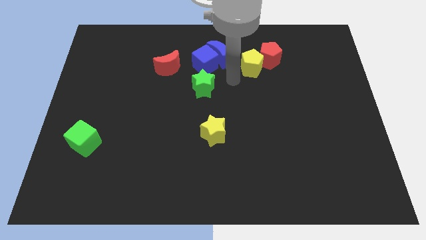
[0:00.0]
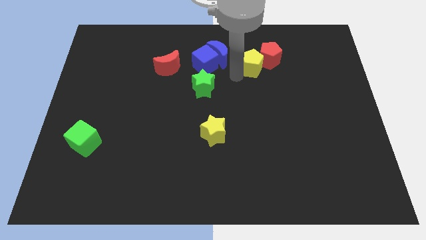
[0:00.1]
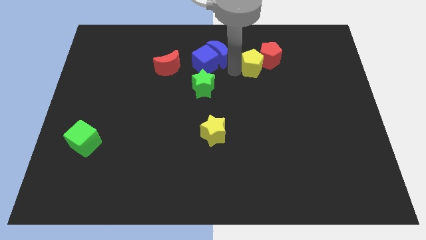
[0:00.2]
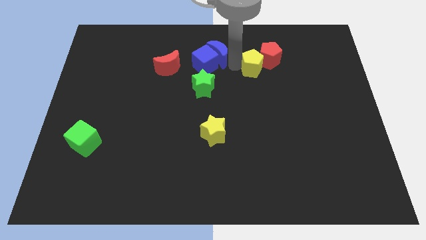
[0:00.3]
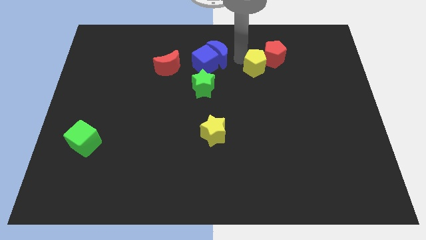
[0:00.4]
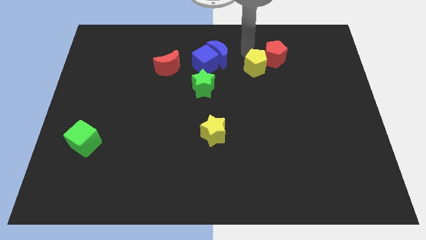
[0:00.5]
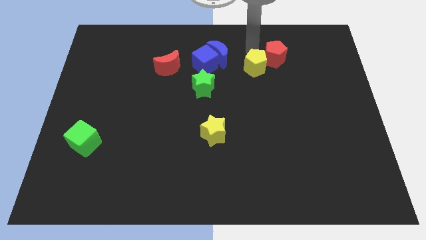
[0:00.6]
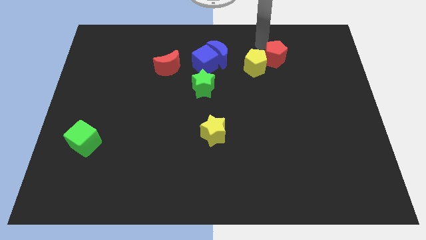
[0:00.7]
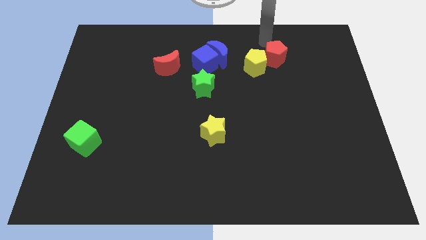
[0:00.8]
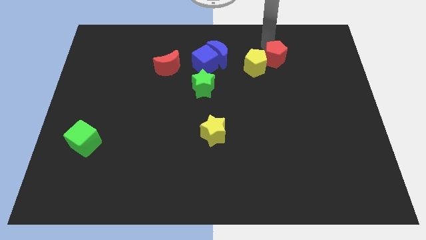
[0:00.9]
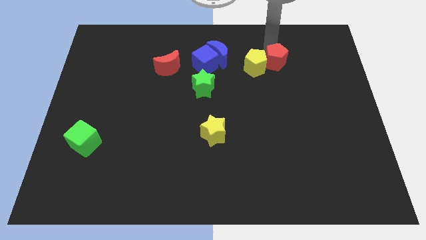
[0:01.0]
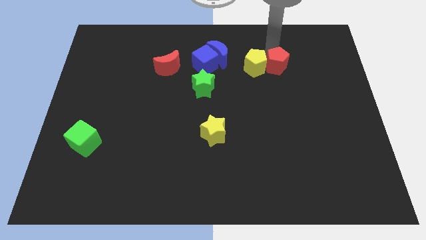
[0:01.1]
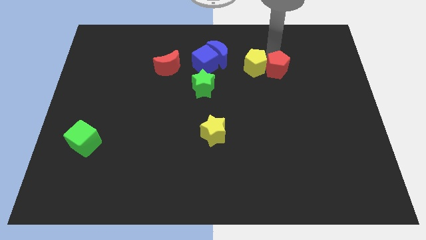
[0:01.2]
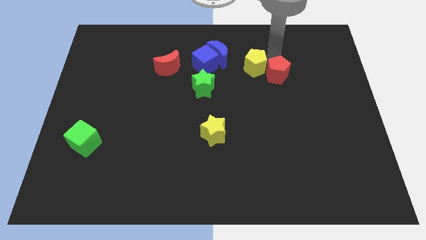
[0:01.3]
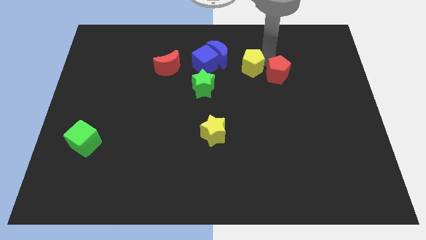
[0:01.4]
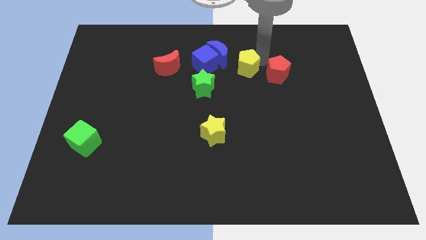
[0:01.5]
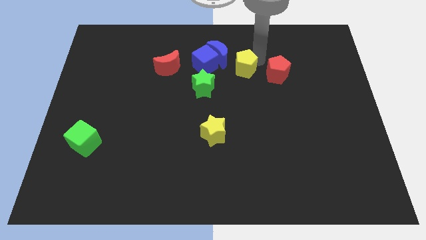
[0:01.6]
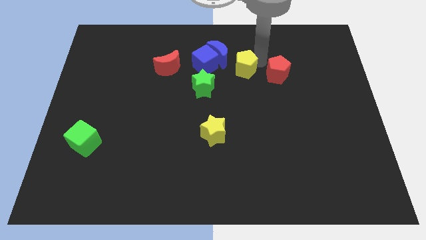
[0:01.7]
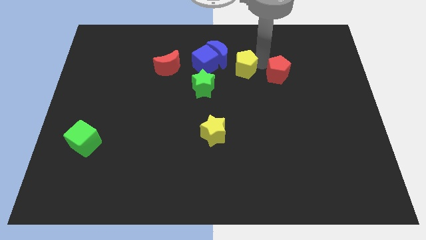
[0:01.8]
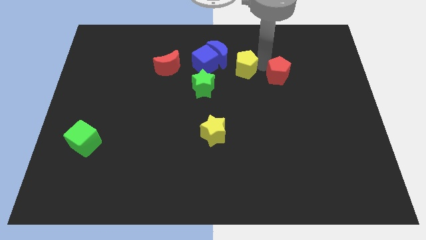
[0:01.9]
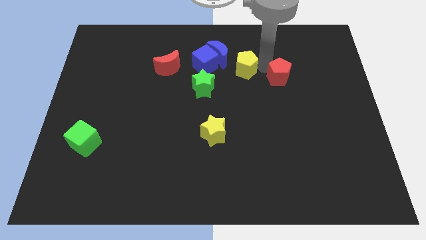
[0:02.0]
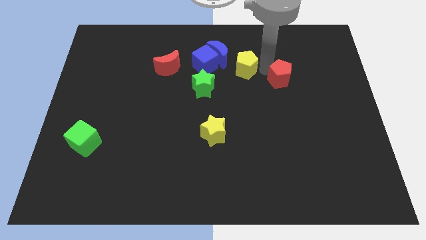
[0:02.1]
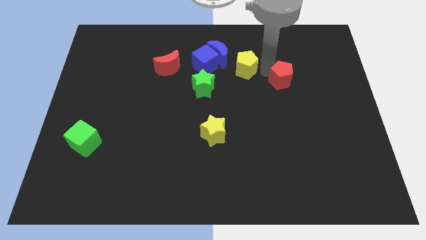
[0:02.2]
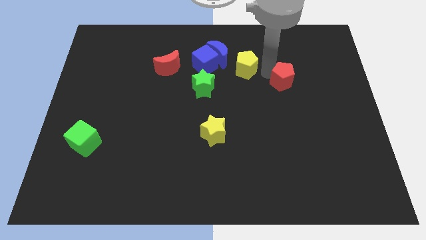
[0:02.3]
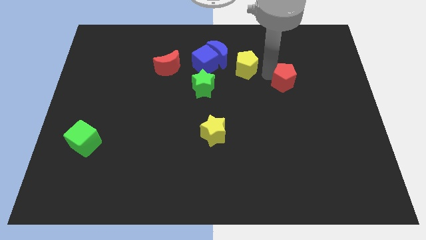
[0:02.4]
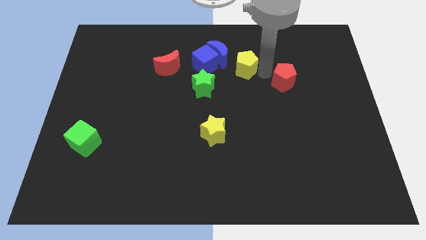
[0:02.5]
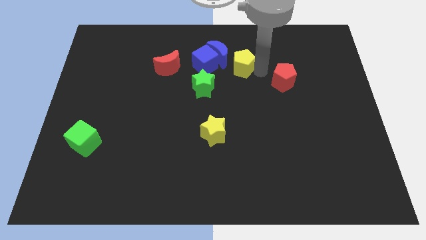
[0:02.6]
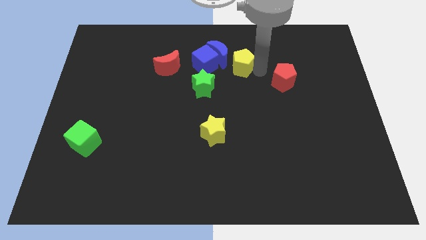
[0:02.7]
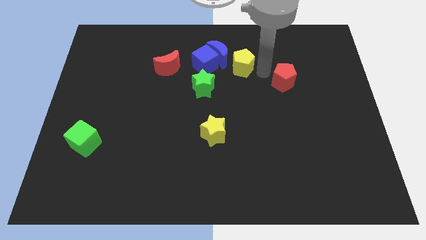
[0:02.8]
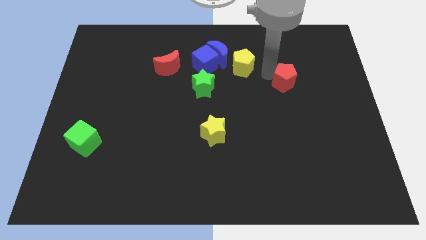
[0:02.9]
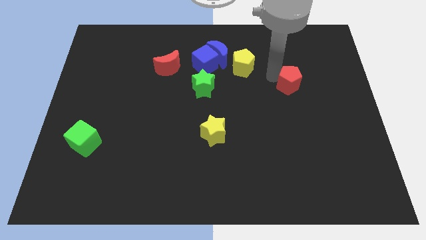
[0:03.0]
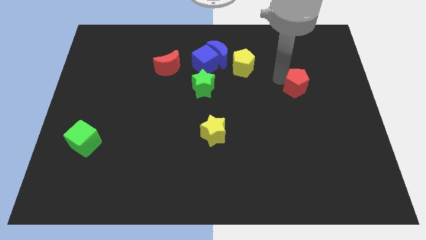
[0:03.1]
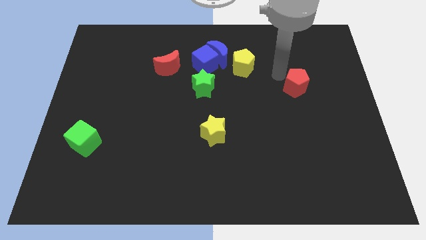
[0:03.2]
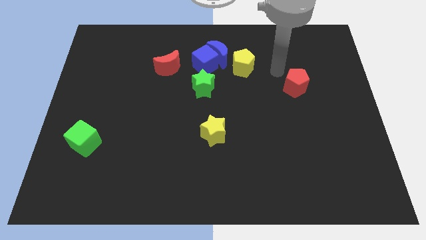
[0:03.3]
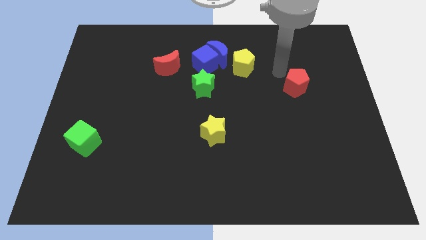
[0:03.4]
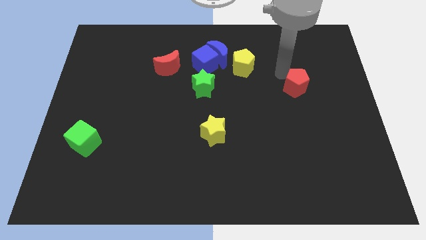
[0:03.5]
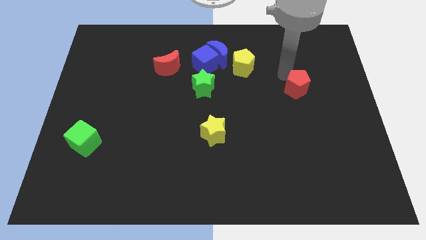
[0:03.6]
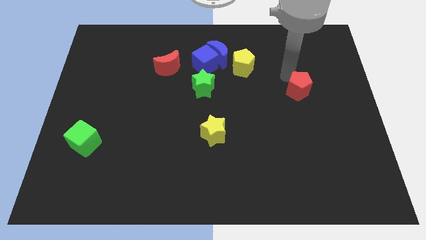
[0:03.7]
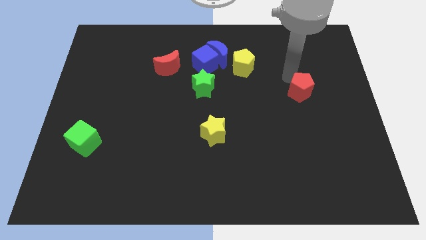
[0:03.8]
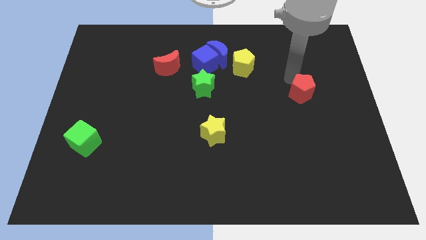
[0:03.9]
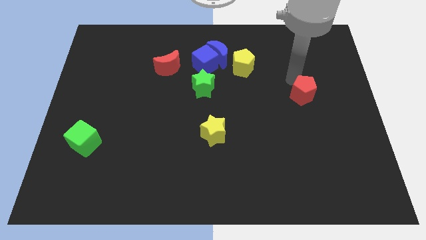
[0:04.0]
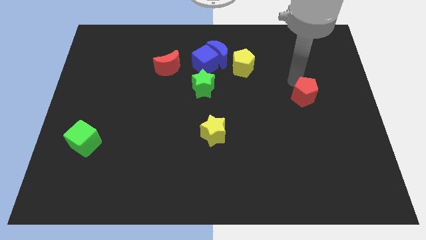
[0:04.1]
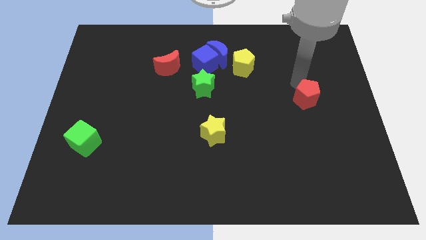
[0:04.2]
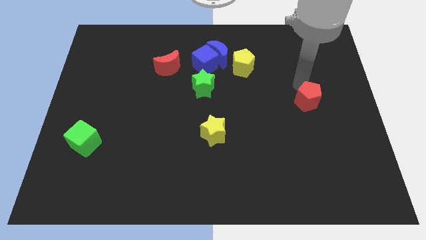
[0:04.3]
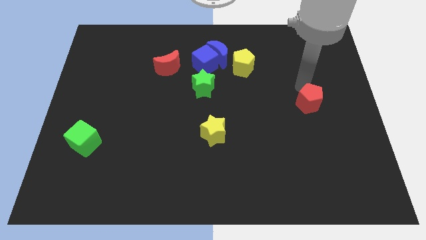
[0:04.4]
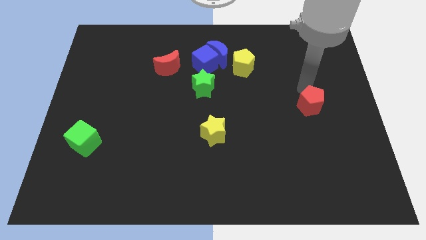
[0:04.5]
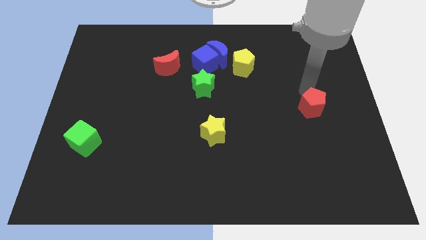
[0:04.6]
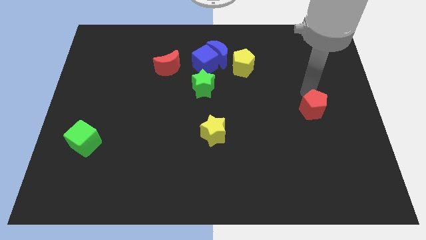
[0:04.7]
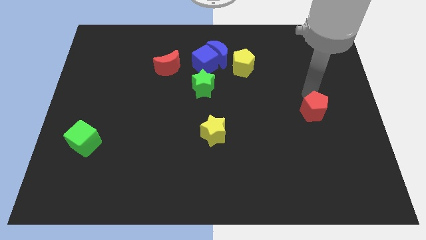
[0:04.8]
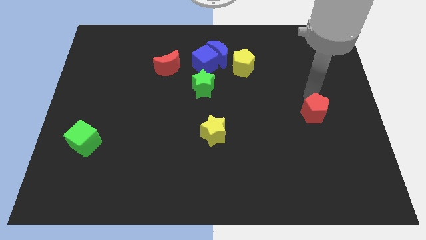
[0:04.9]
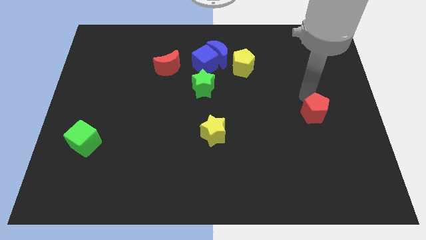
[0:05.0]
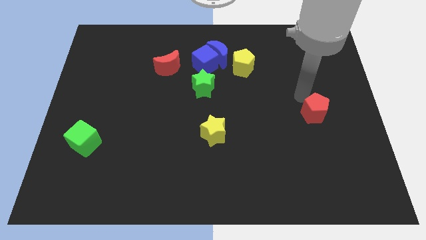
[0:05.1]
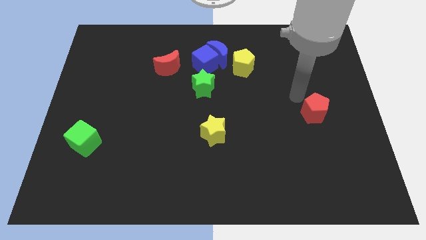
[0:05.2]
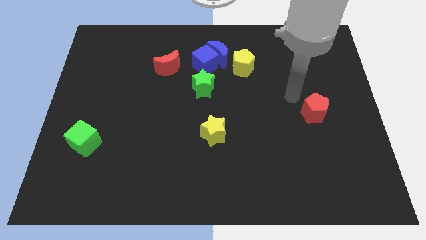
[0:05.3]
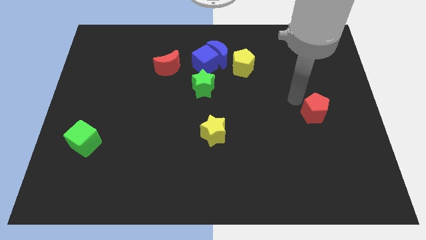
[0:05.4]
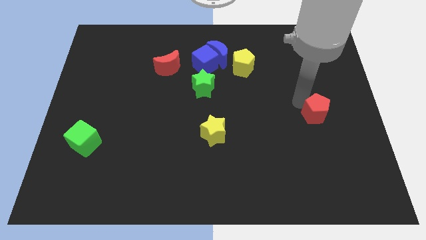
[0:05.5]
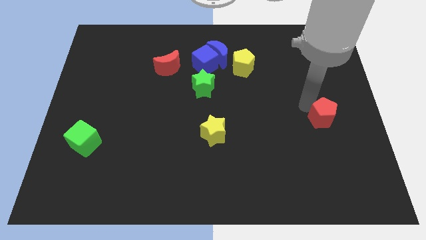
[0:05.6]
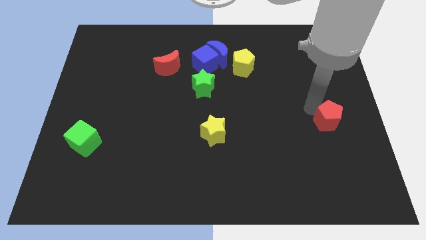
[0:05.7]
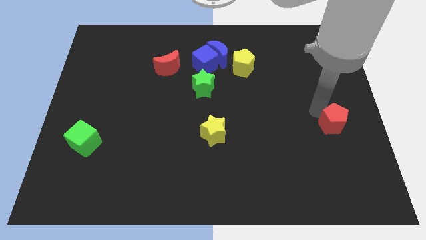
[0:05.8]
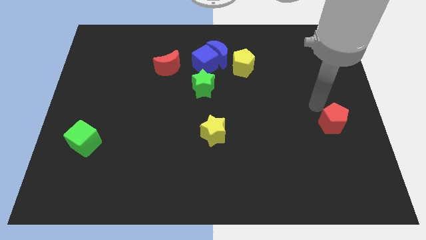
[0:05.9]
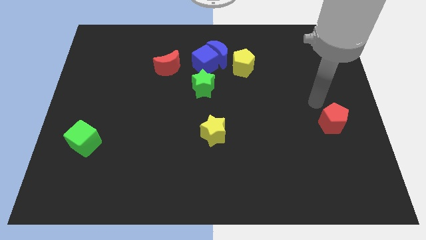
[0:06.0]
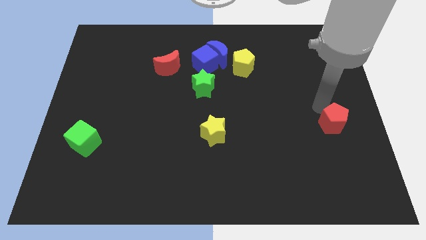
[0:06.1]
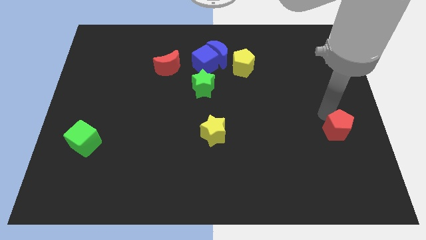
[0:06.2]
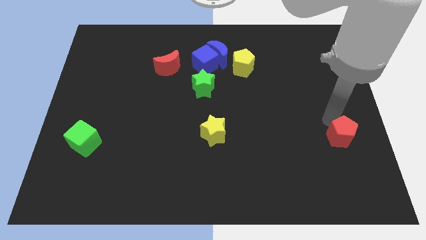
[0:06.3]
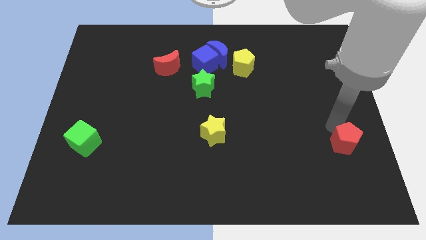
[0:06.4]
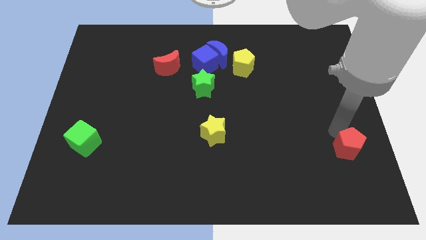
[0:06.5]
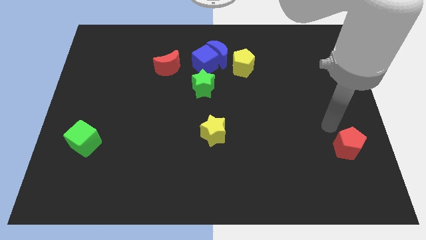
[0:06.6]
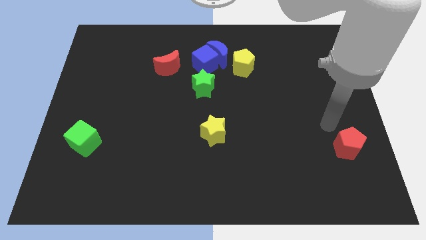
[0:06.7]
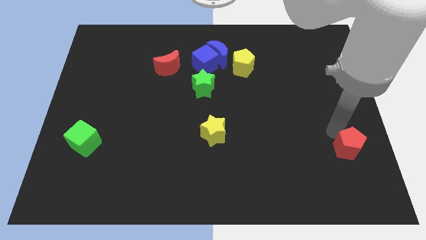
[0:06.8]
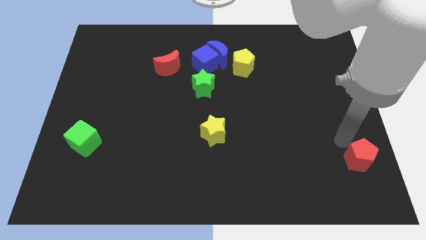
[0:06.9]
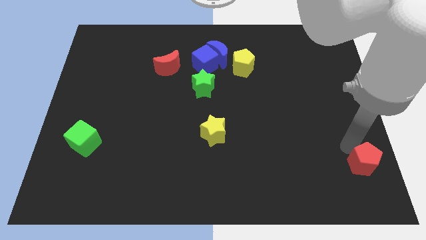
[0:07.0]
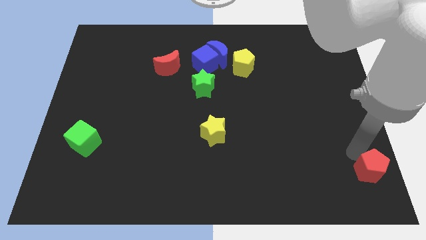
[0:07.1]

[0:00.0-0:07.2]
push the red pentagon to the bottom right of the board
